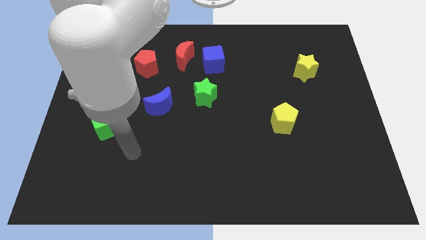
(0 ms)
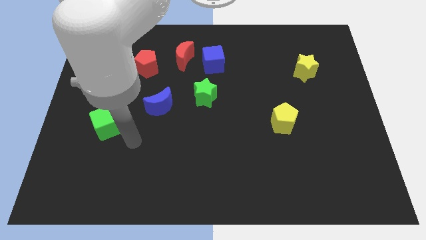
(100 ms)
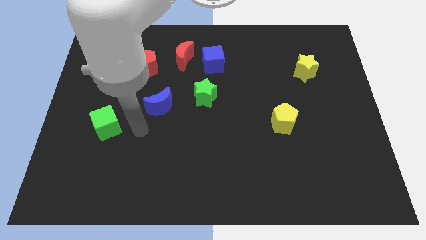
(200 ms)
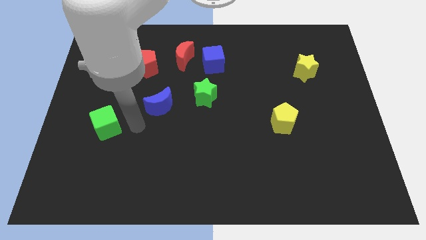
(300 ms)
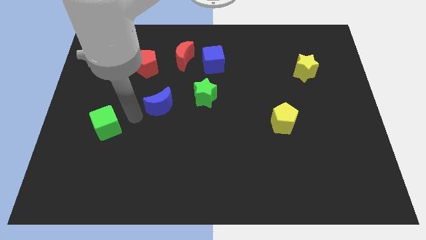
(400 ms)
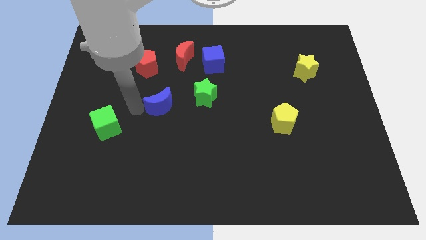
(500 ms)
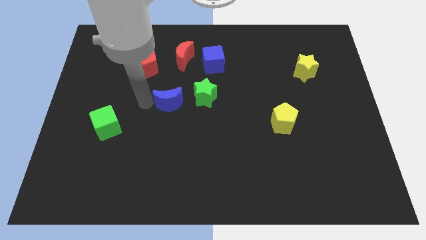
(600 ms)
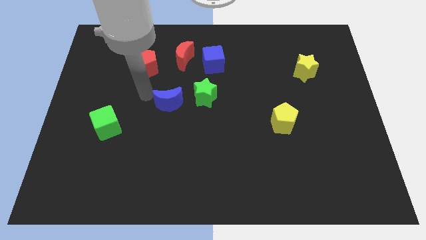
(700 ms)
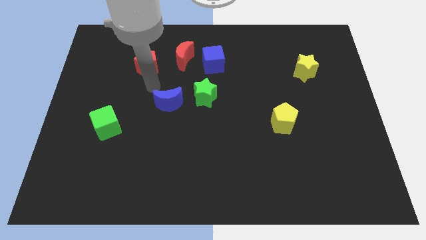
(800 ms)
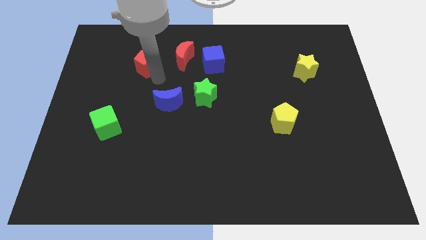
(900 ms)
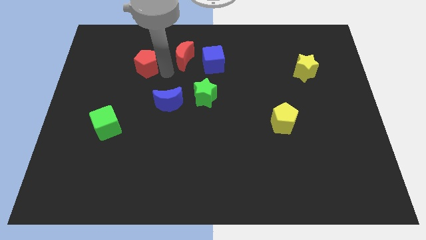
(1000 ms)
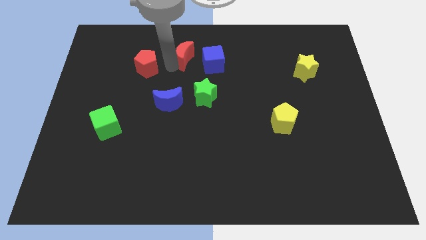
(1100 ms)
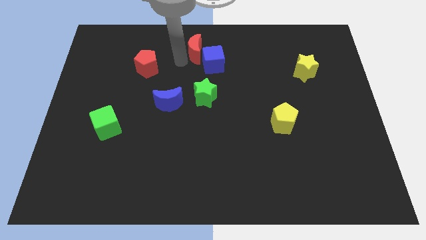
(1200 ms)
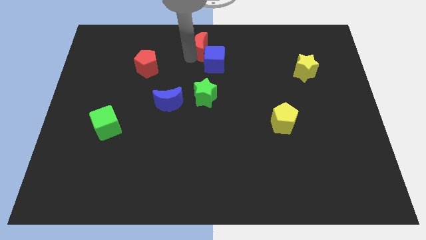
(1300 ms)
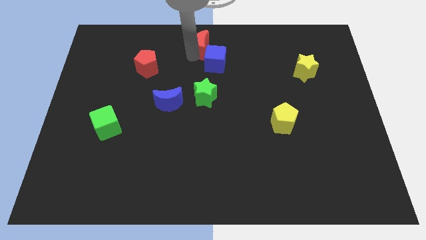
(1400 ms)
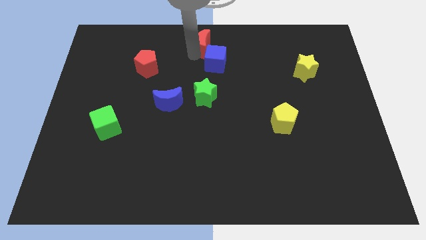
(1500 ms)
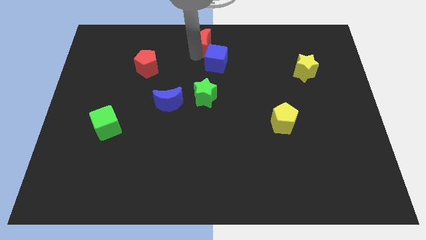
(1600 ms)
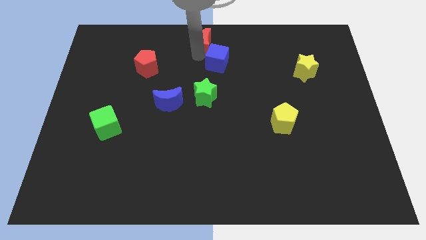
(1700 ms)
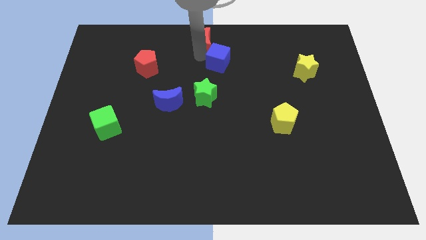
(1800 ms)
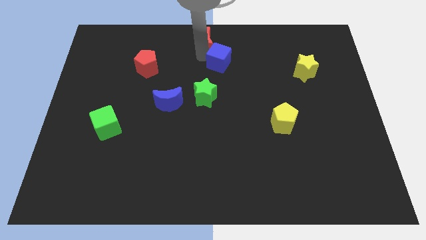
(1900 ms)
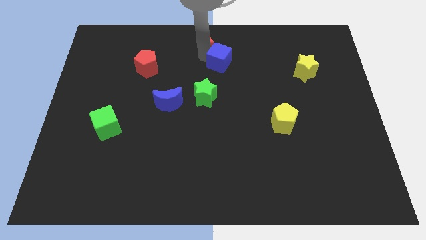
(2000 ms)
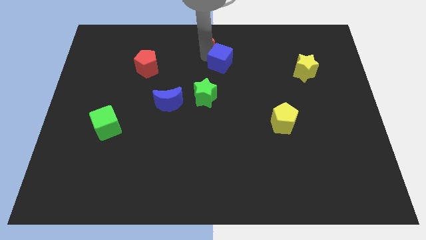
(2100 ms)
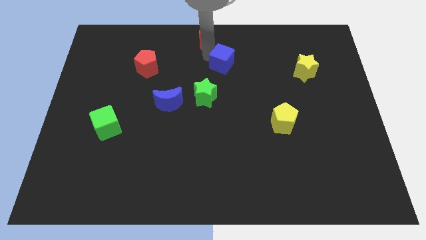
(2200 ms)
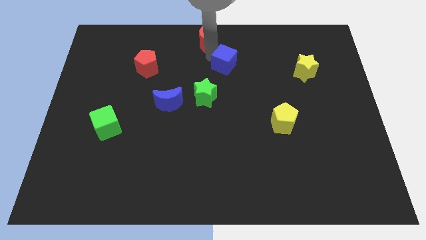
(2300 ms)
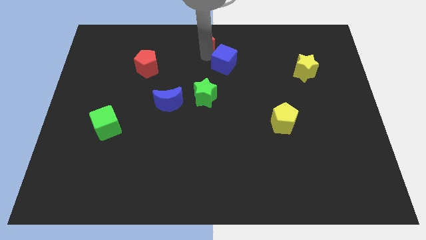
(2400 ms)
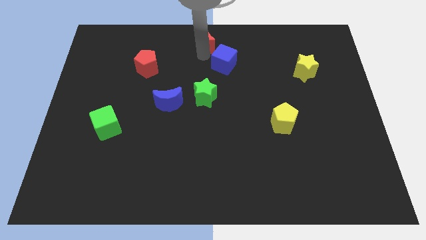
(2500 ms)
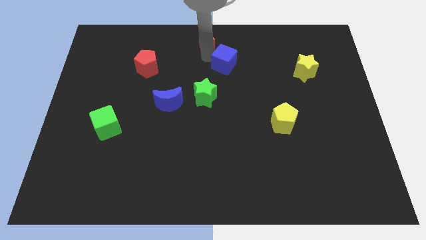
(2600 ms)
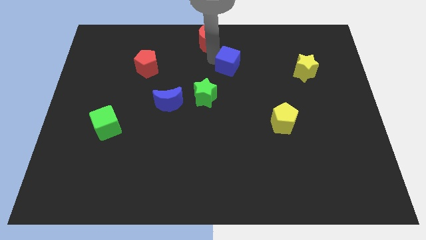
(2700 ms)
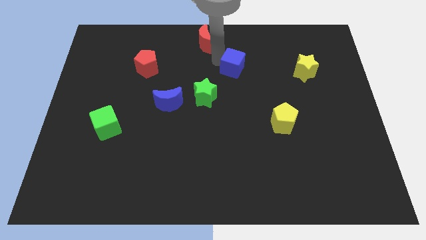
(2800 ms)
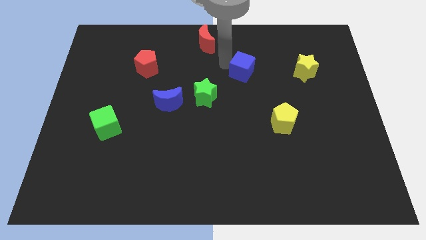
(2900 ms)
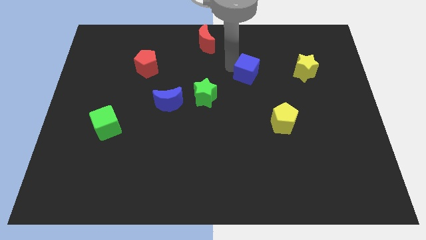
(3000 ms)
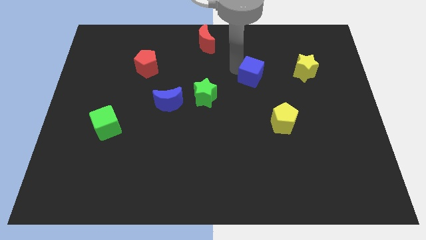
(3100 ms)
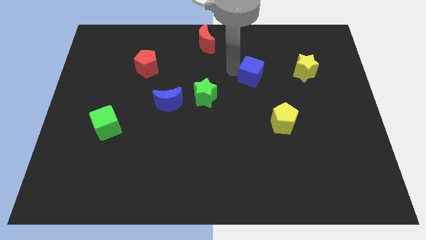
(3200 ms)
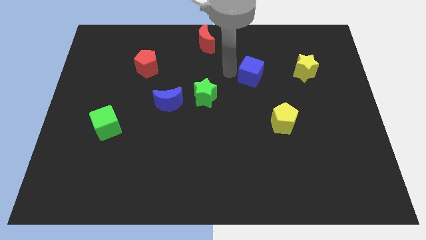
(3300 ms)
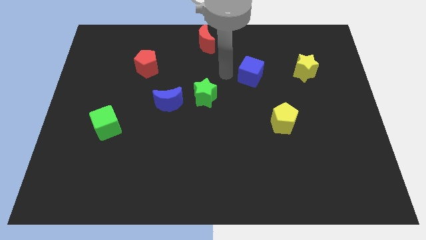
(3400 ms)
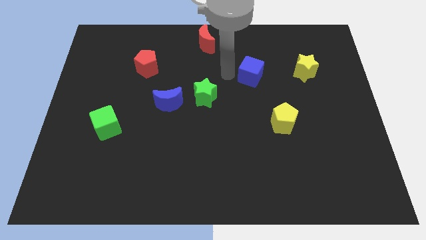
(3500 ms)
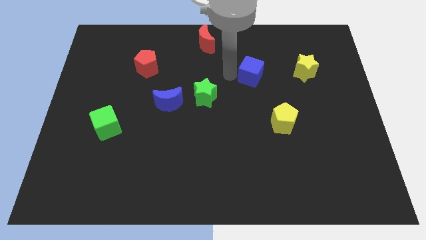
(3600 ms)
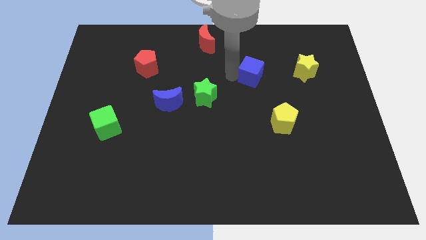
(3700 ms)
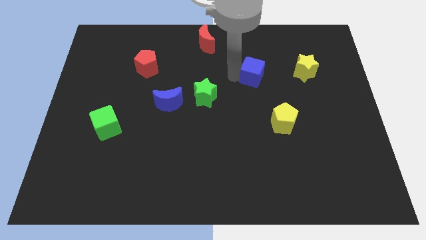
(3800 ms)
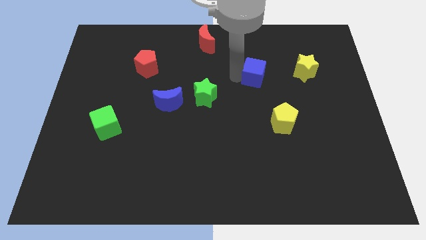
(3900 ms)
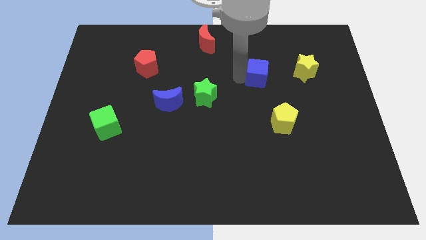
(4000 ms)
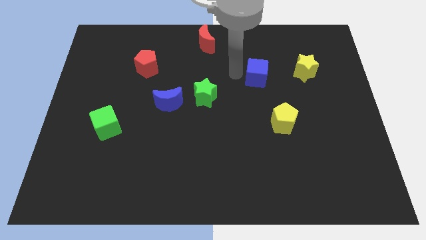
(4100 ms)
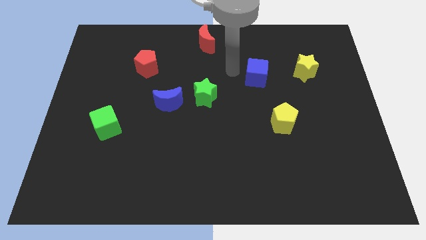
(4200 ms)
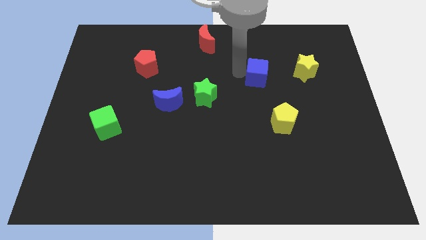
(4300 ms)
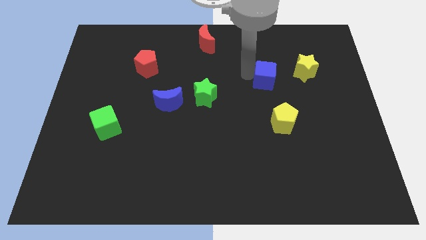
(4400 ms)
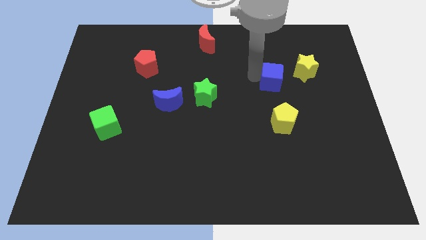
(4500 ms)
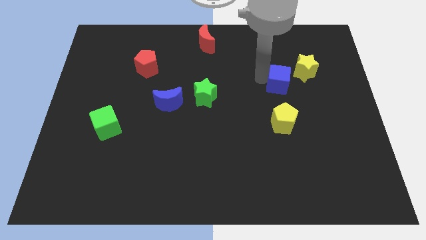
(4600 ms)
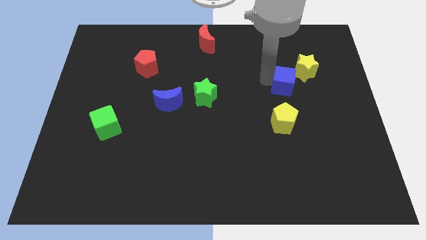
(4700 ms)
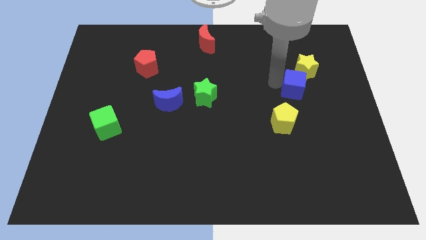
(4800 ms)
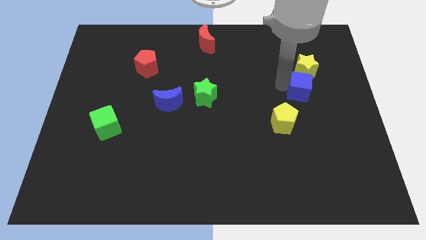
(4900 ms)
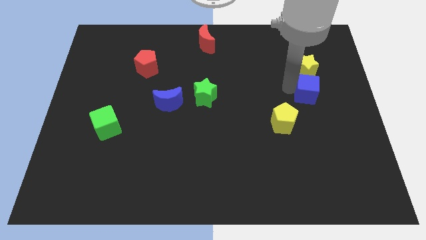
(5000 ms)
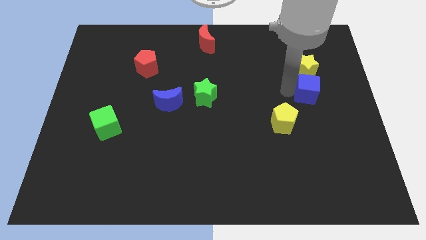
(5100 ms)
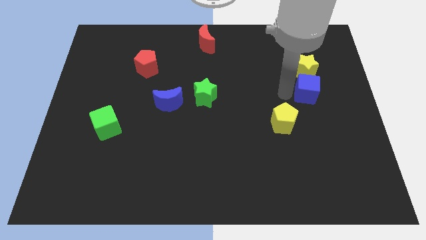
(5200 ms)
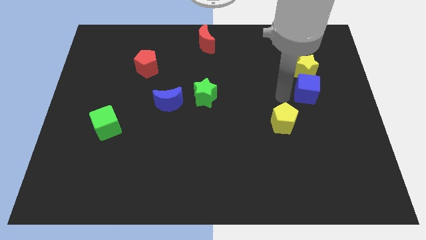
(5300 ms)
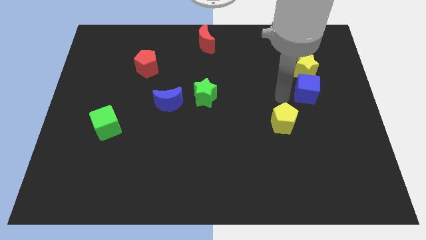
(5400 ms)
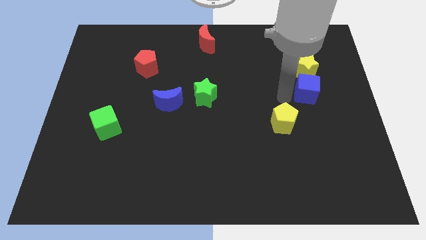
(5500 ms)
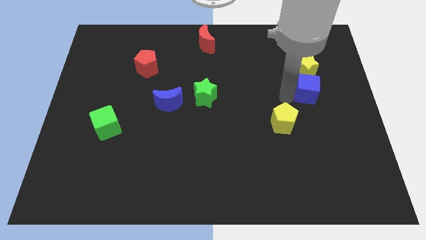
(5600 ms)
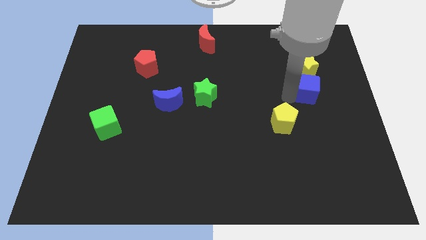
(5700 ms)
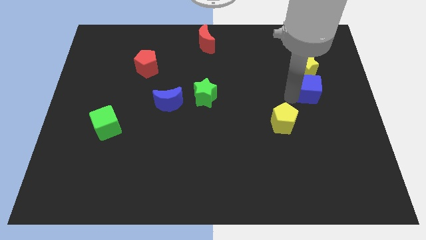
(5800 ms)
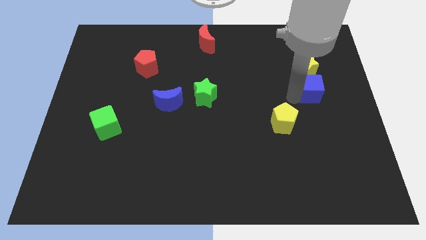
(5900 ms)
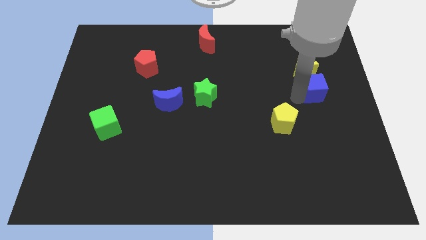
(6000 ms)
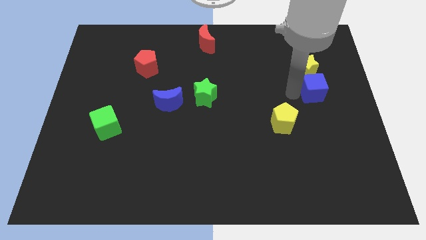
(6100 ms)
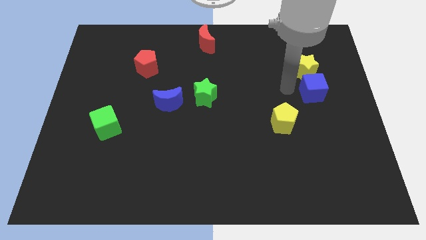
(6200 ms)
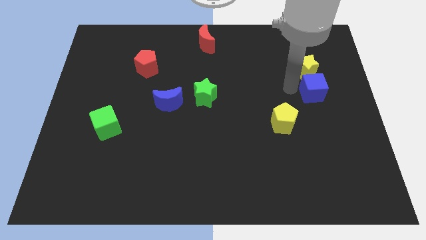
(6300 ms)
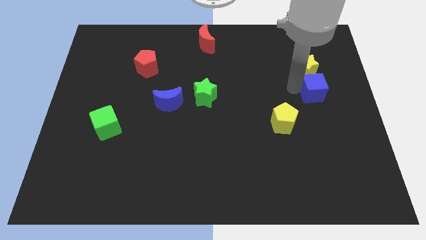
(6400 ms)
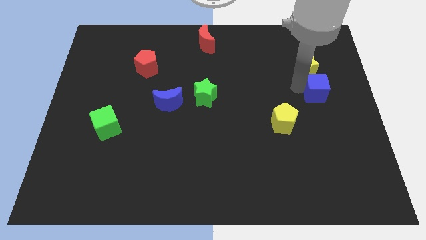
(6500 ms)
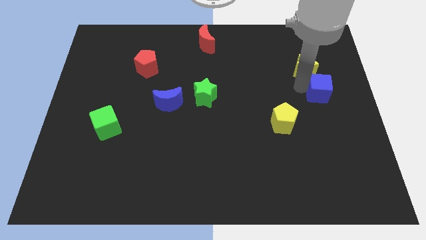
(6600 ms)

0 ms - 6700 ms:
push the blue cube to the right side of the board
